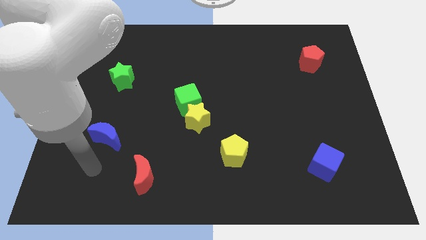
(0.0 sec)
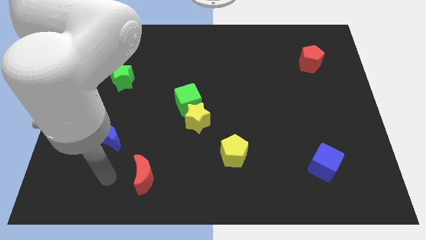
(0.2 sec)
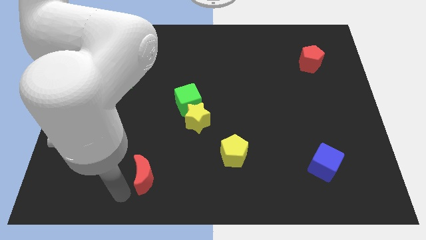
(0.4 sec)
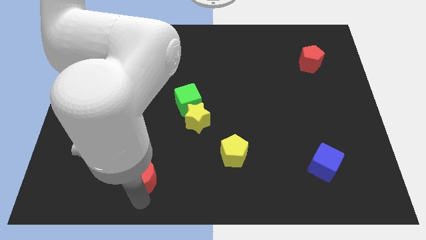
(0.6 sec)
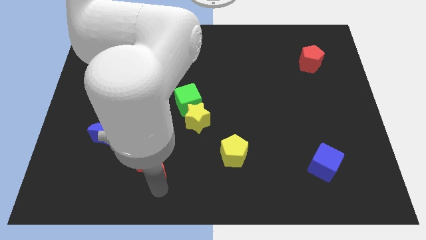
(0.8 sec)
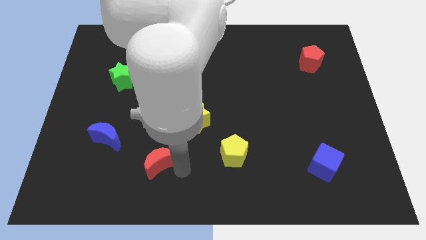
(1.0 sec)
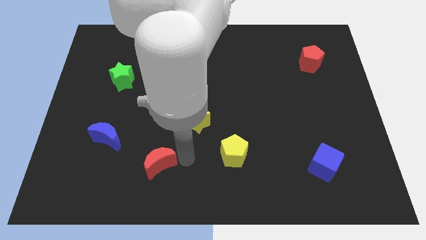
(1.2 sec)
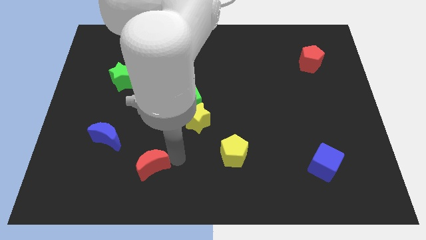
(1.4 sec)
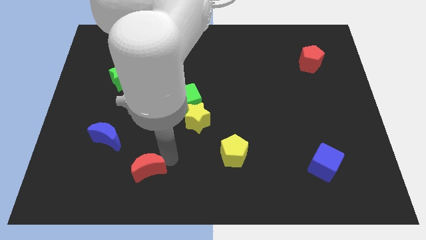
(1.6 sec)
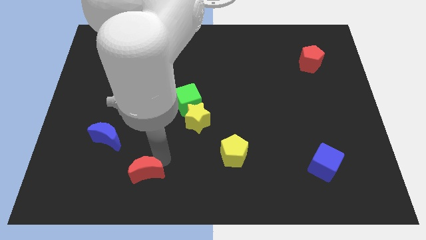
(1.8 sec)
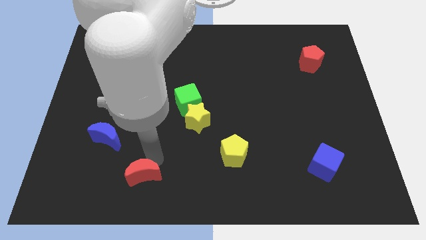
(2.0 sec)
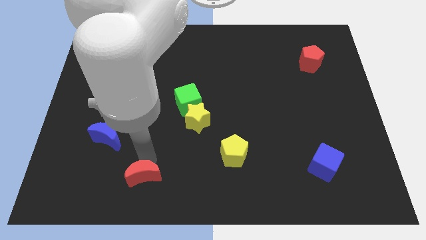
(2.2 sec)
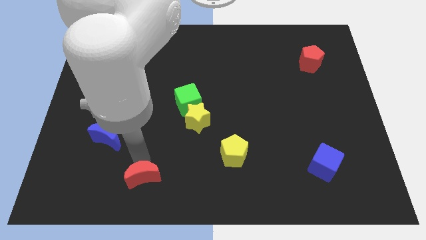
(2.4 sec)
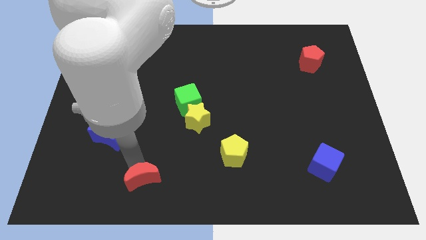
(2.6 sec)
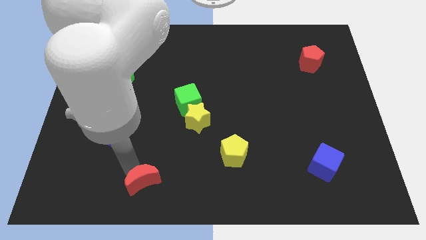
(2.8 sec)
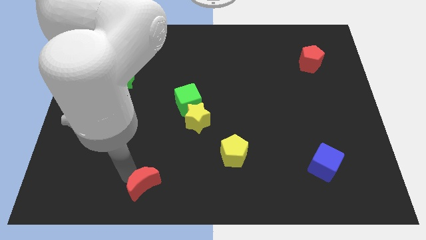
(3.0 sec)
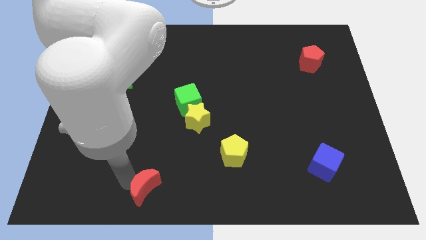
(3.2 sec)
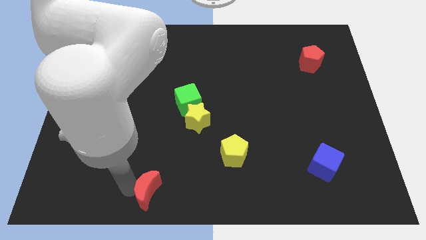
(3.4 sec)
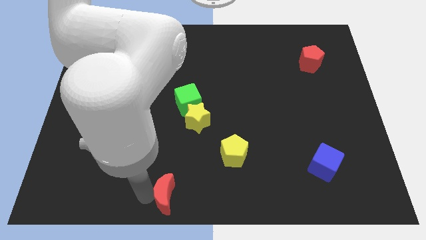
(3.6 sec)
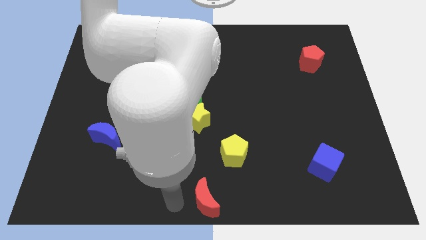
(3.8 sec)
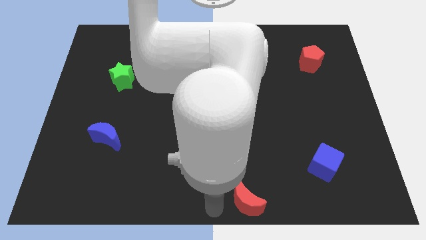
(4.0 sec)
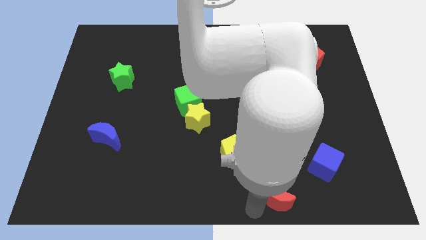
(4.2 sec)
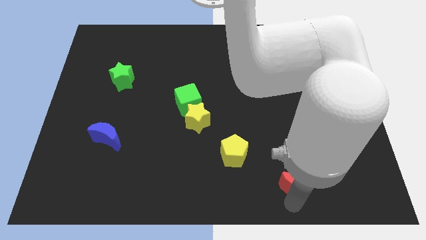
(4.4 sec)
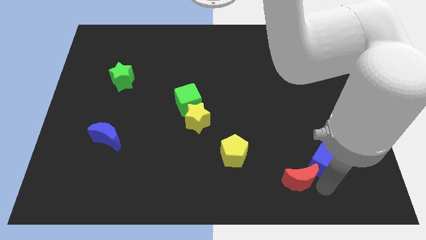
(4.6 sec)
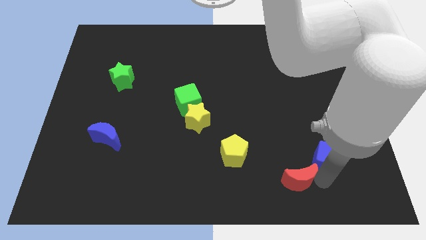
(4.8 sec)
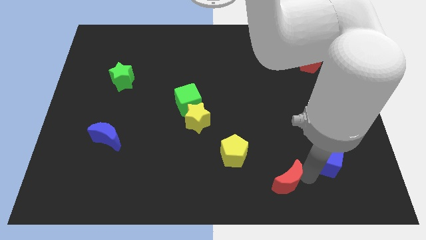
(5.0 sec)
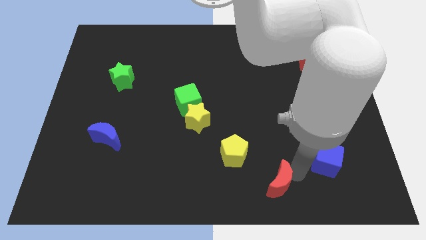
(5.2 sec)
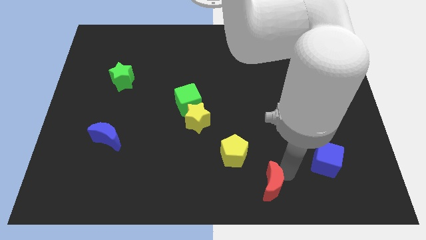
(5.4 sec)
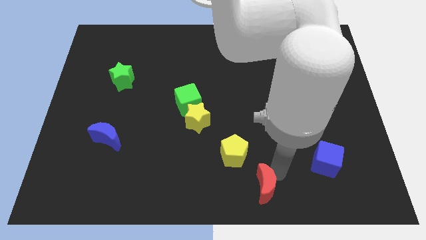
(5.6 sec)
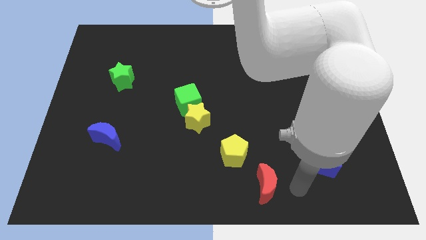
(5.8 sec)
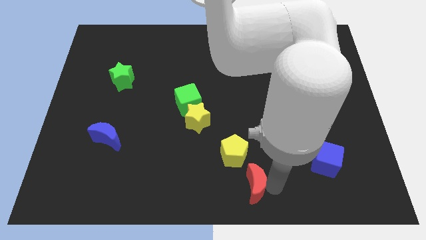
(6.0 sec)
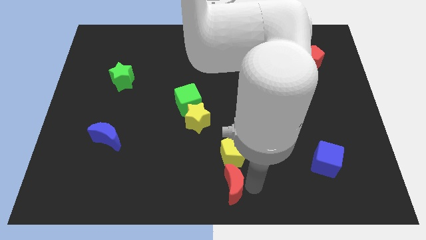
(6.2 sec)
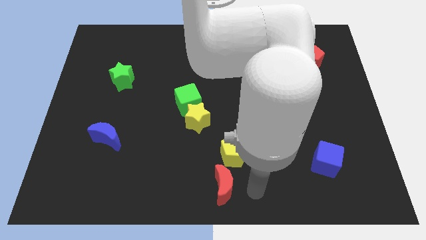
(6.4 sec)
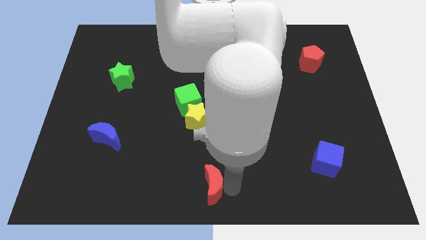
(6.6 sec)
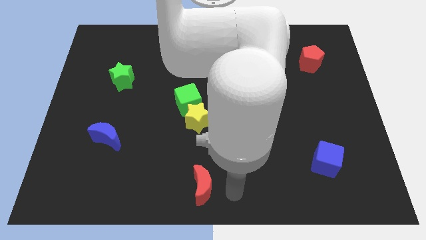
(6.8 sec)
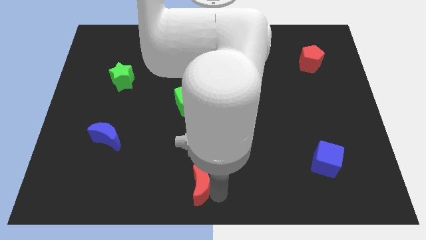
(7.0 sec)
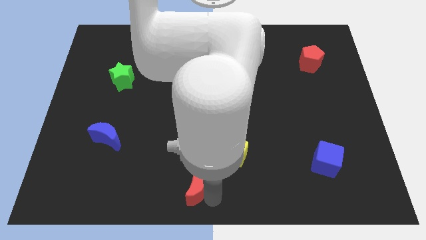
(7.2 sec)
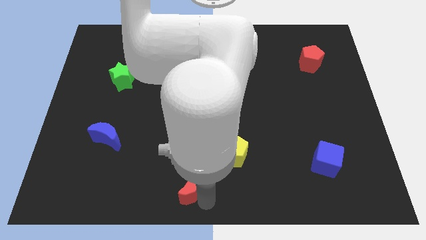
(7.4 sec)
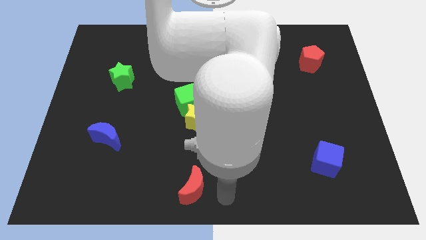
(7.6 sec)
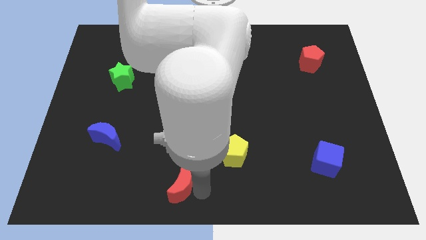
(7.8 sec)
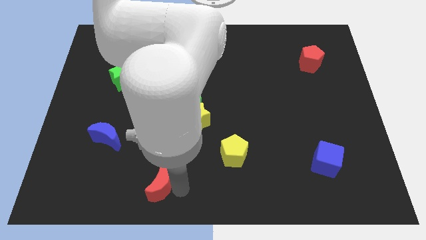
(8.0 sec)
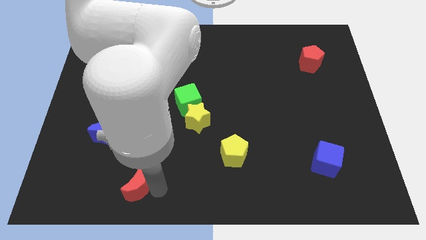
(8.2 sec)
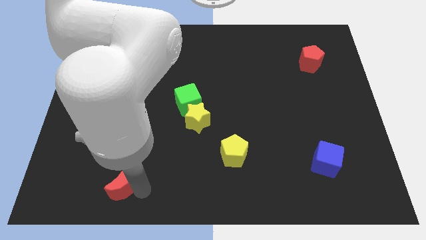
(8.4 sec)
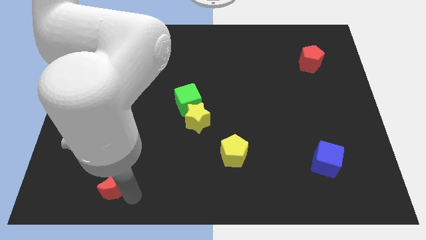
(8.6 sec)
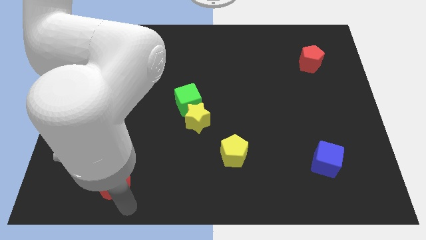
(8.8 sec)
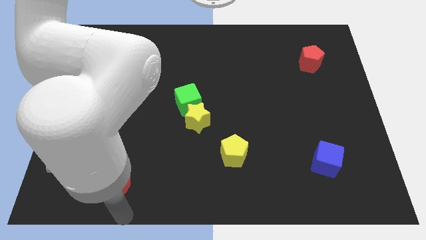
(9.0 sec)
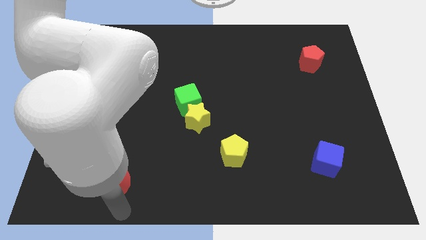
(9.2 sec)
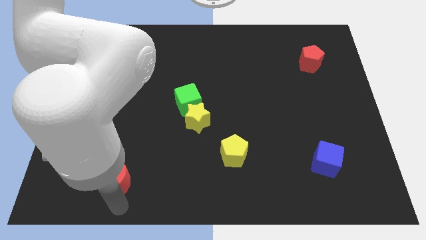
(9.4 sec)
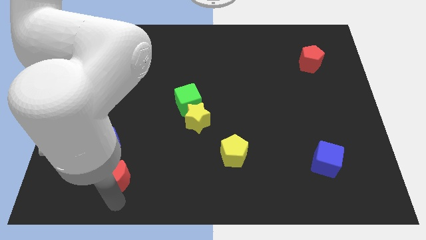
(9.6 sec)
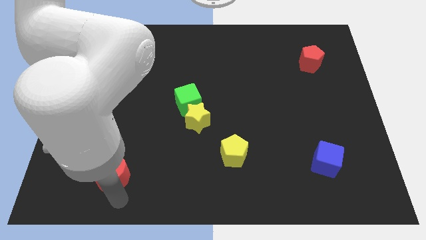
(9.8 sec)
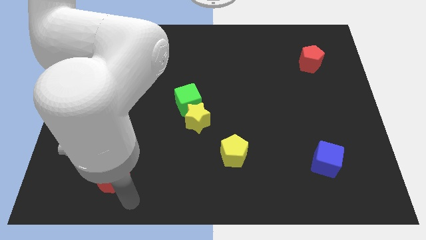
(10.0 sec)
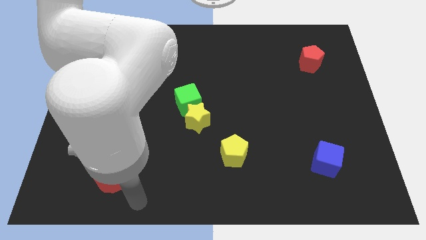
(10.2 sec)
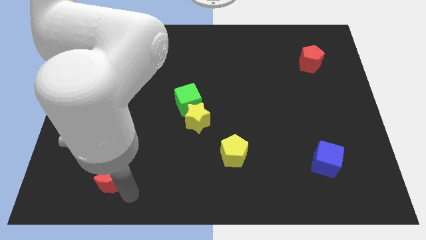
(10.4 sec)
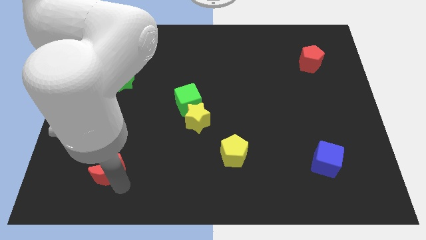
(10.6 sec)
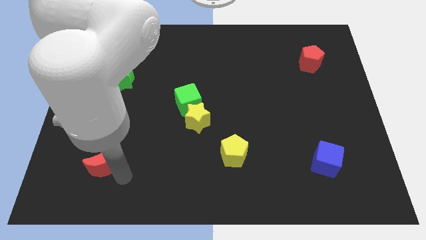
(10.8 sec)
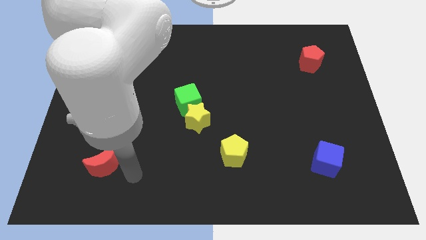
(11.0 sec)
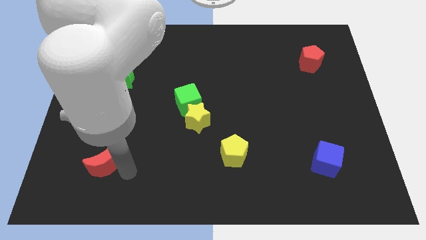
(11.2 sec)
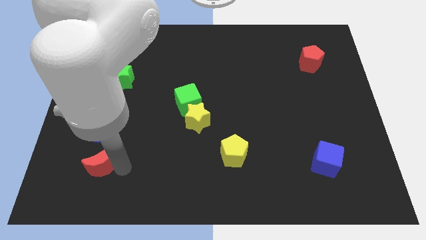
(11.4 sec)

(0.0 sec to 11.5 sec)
slide the red moon to the bottom left of the blue moon
